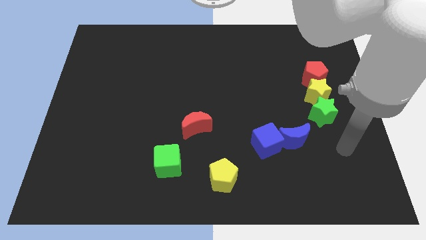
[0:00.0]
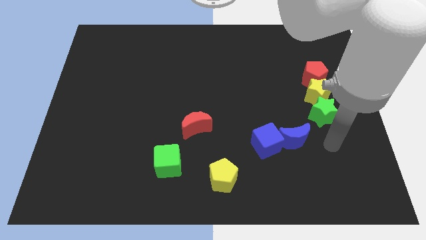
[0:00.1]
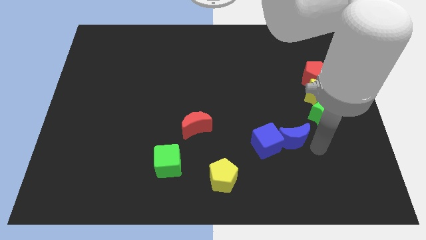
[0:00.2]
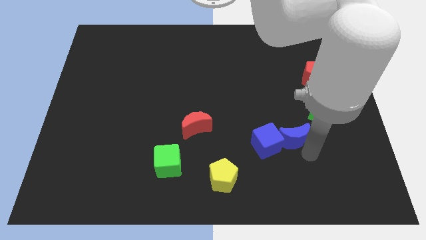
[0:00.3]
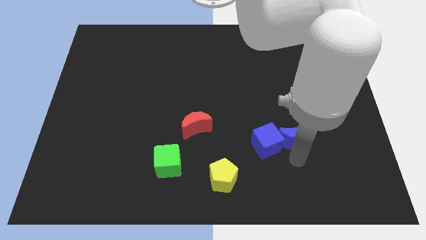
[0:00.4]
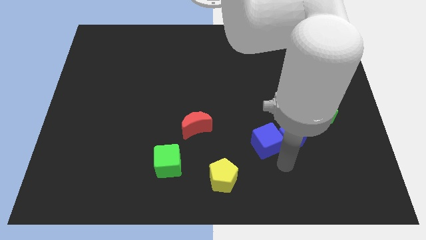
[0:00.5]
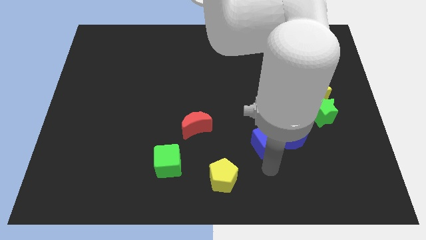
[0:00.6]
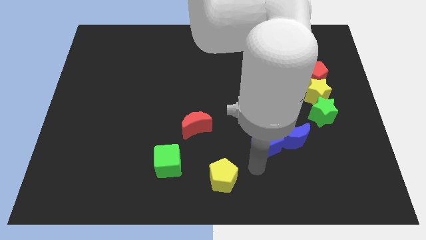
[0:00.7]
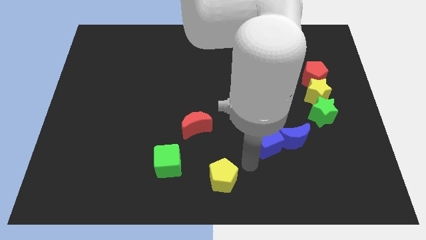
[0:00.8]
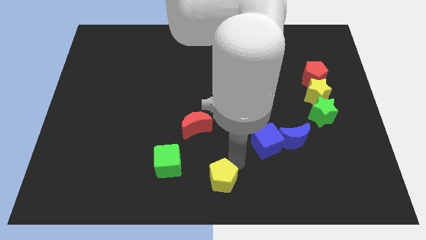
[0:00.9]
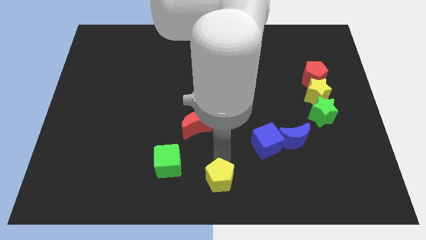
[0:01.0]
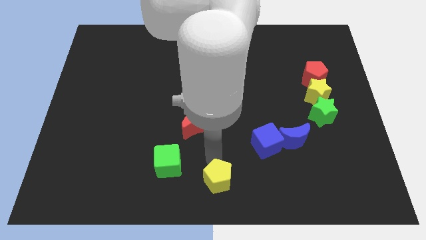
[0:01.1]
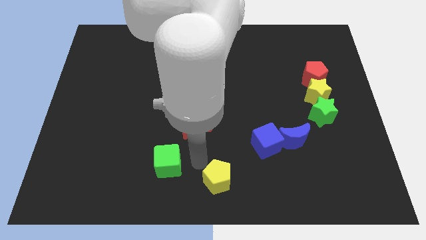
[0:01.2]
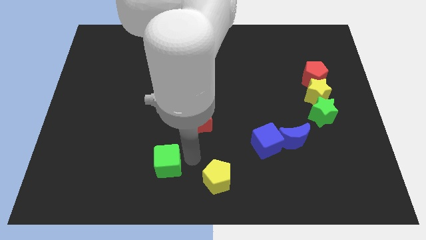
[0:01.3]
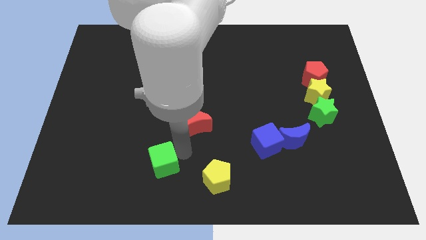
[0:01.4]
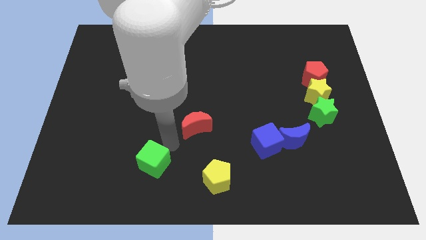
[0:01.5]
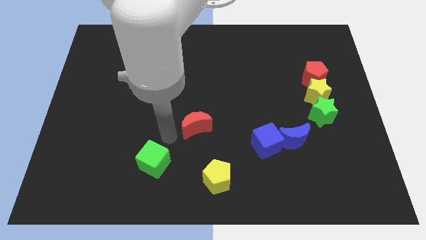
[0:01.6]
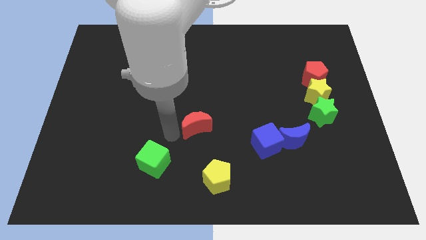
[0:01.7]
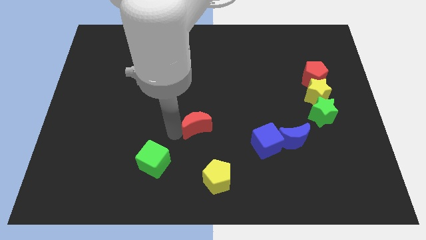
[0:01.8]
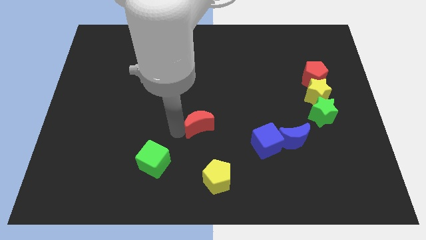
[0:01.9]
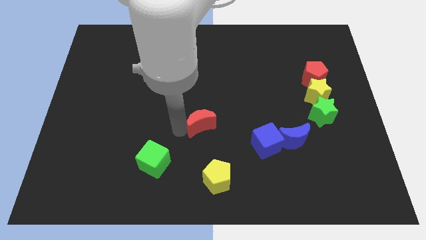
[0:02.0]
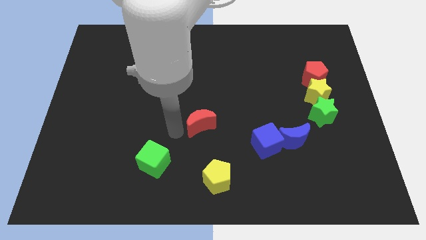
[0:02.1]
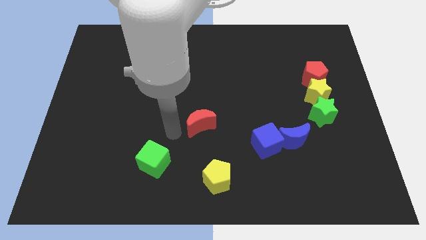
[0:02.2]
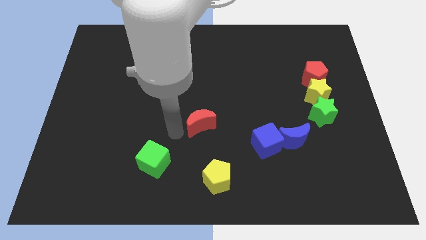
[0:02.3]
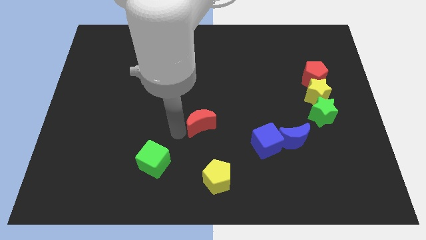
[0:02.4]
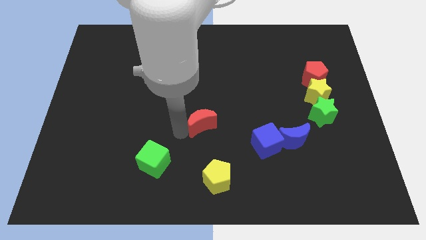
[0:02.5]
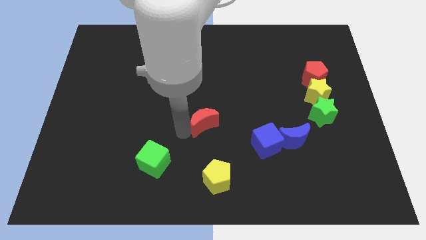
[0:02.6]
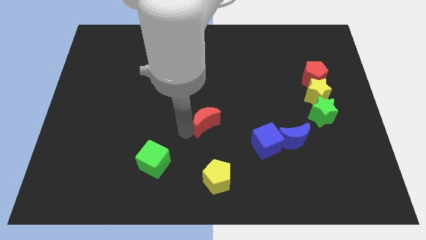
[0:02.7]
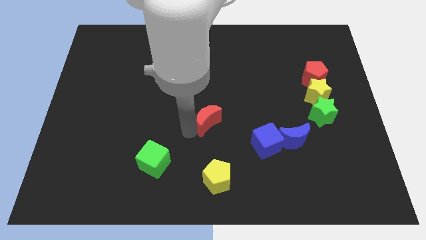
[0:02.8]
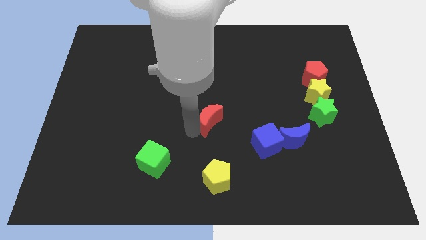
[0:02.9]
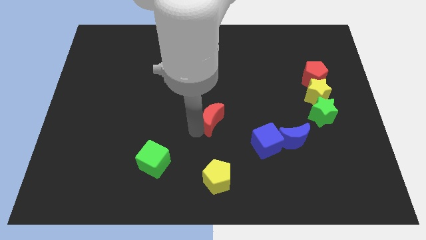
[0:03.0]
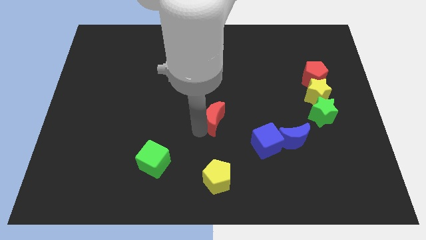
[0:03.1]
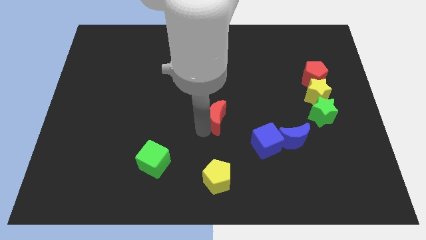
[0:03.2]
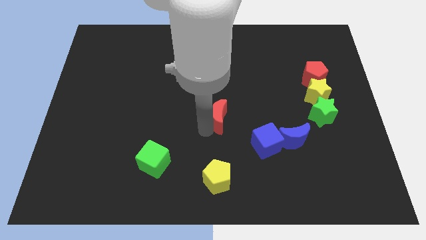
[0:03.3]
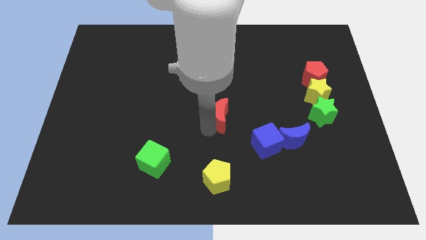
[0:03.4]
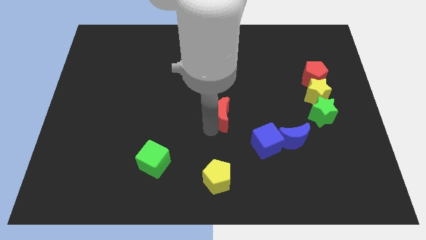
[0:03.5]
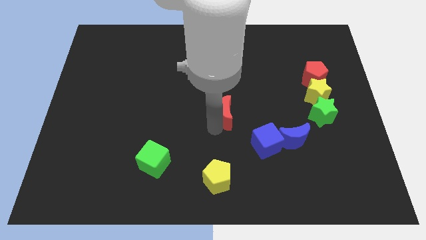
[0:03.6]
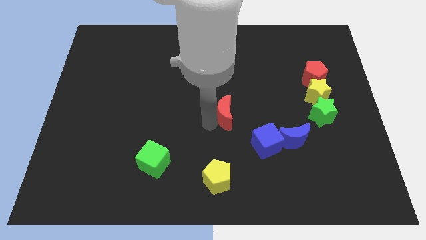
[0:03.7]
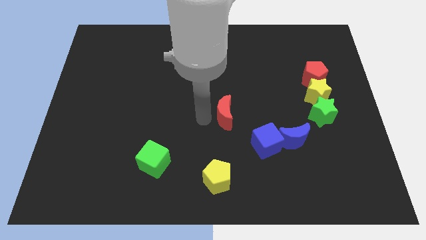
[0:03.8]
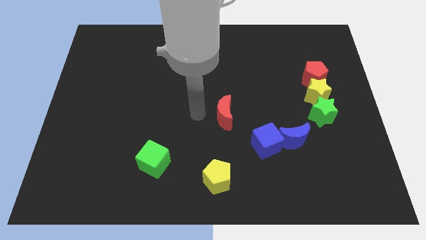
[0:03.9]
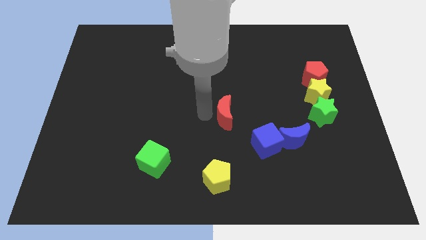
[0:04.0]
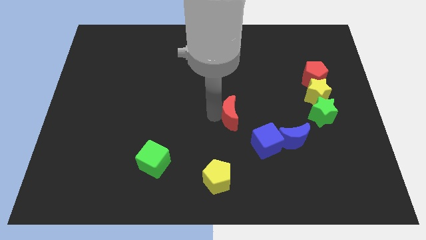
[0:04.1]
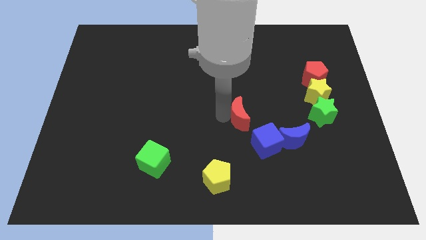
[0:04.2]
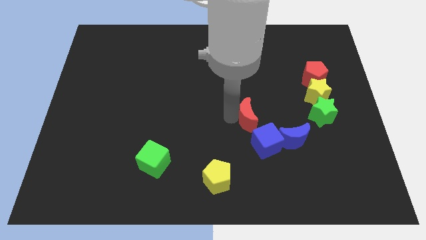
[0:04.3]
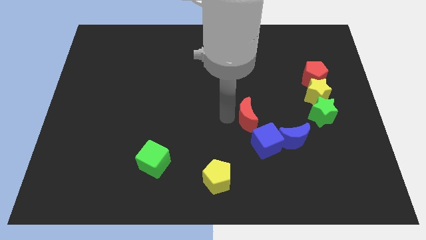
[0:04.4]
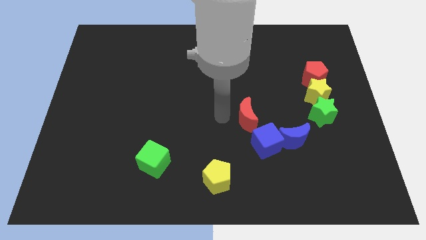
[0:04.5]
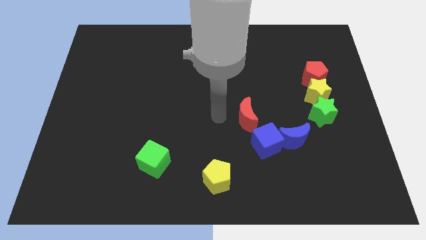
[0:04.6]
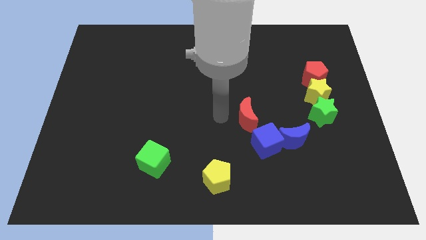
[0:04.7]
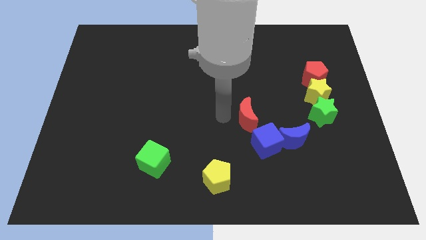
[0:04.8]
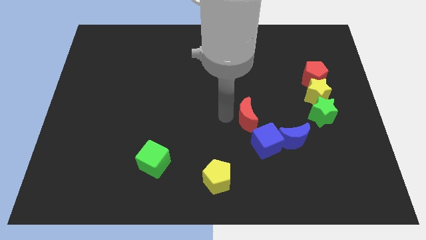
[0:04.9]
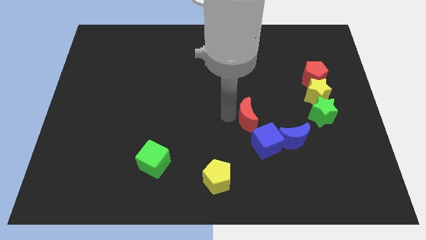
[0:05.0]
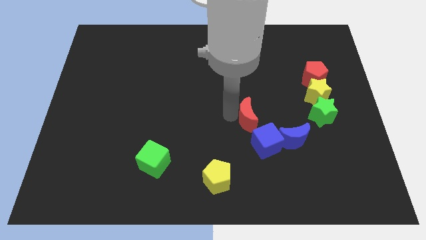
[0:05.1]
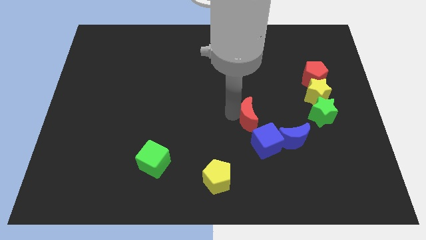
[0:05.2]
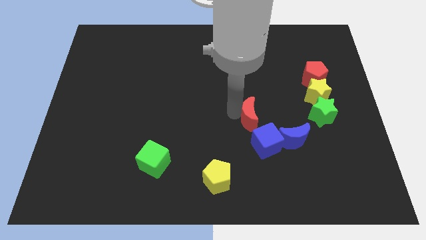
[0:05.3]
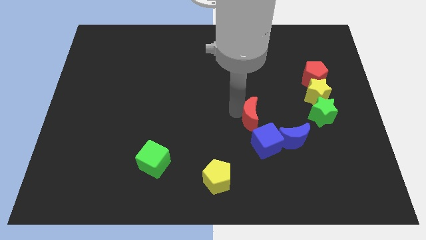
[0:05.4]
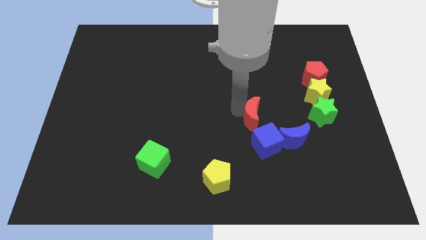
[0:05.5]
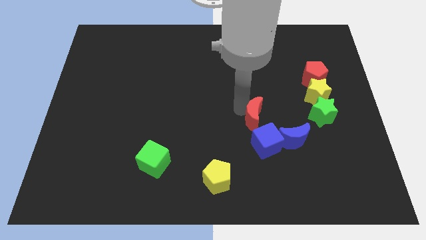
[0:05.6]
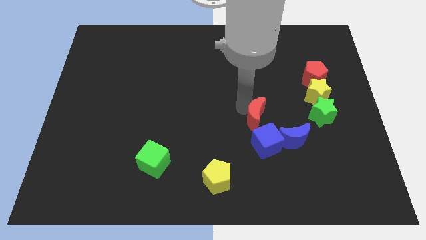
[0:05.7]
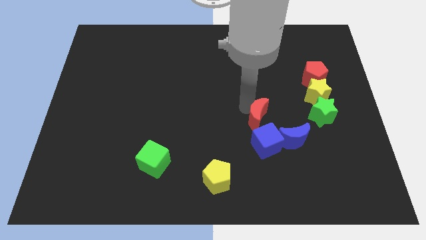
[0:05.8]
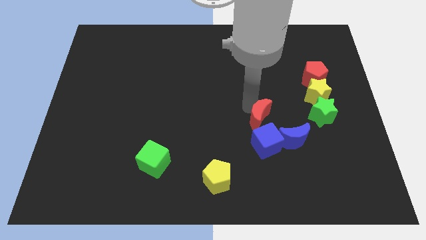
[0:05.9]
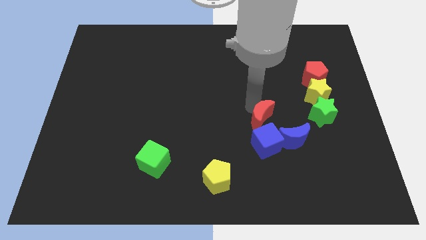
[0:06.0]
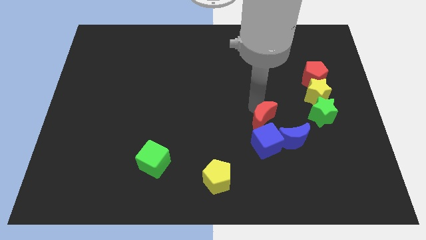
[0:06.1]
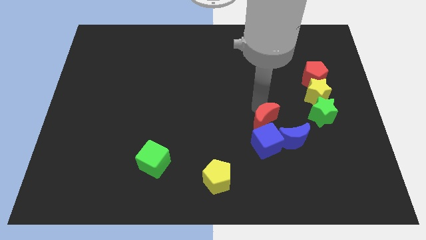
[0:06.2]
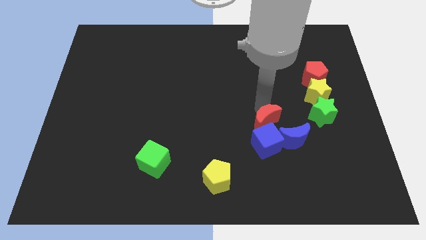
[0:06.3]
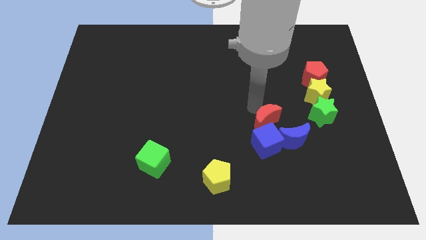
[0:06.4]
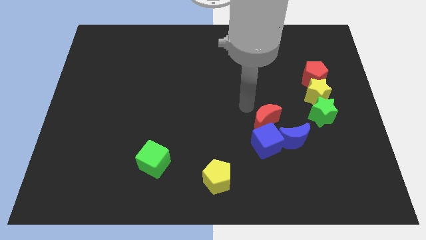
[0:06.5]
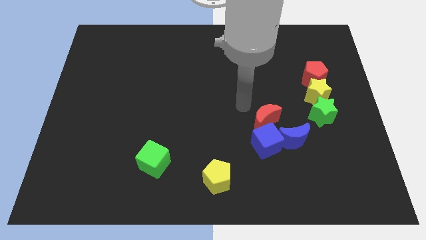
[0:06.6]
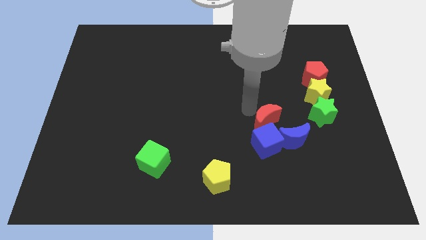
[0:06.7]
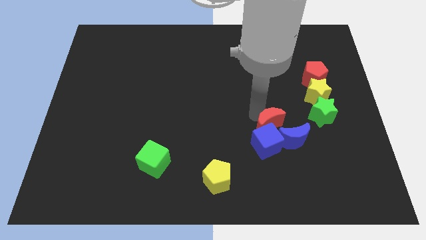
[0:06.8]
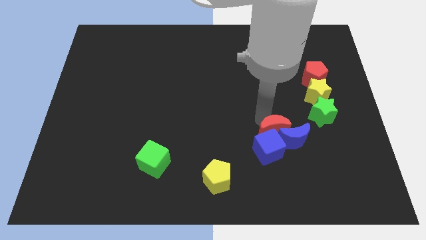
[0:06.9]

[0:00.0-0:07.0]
push the red moon towards the blue moon

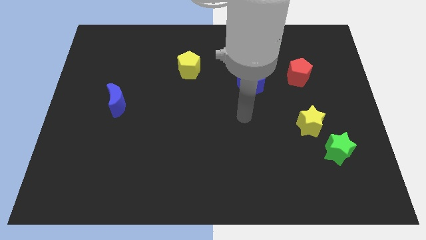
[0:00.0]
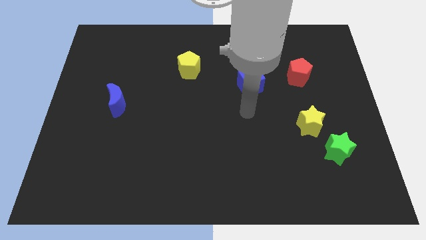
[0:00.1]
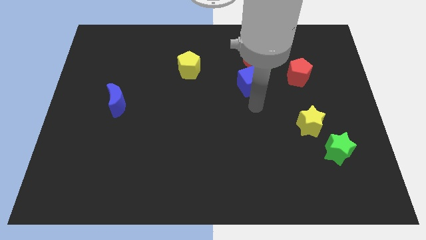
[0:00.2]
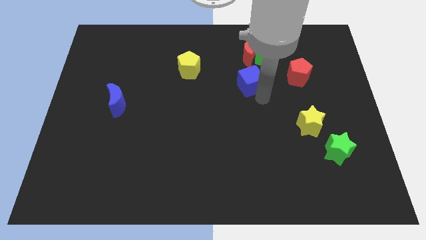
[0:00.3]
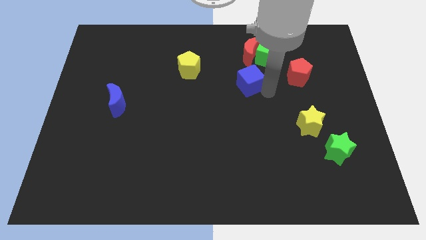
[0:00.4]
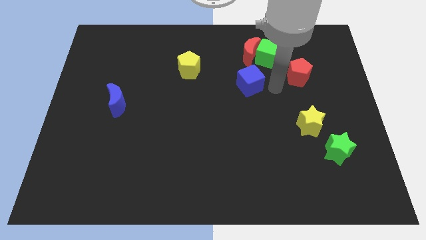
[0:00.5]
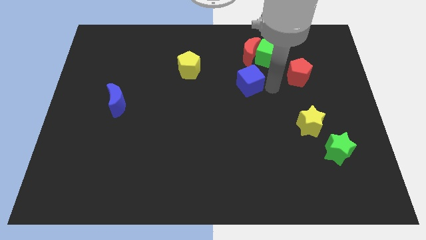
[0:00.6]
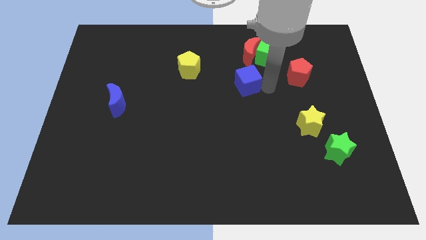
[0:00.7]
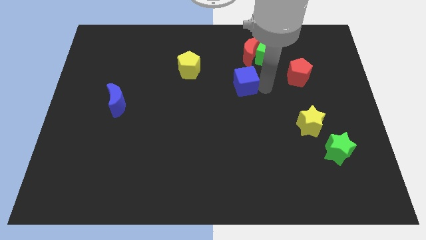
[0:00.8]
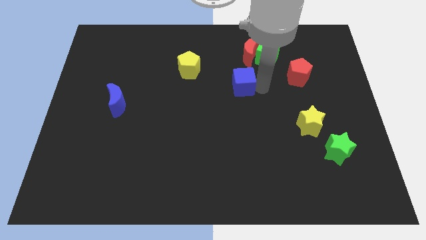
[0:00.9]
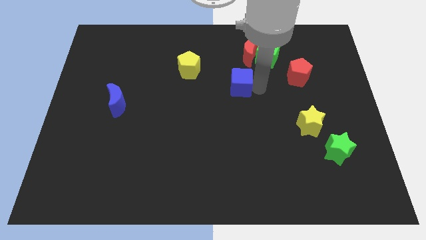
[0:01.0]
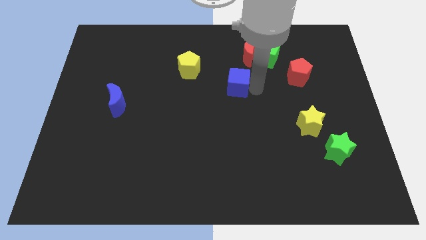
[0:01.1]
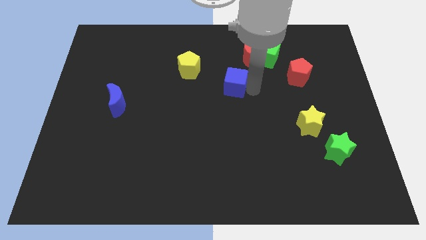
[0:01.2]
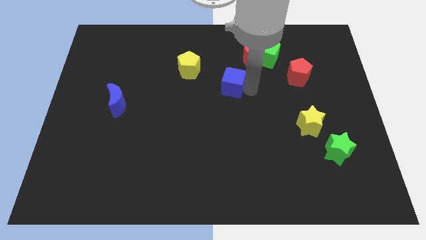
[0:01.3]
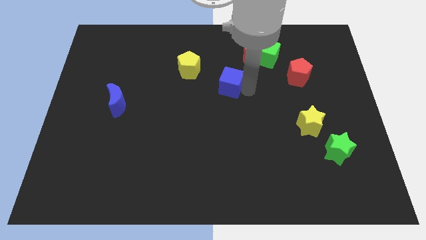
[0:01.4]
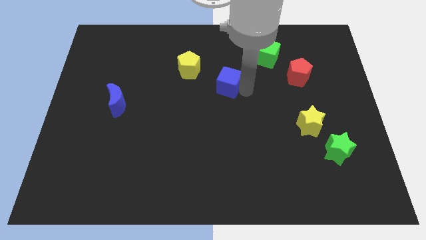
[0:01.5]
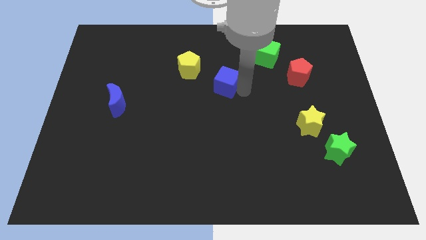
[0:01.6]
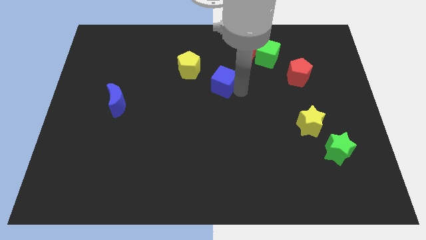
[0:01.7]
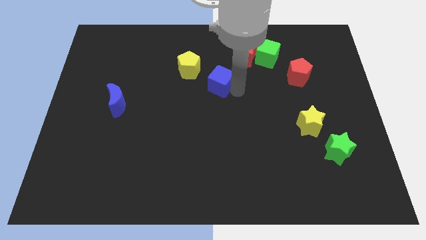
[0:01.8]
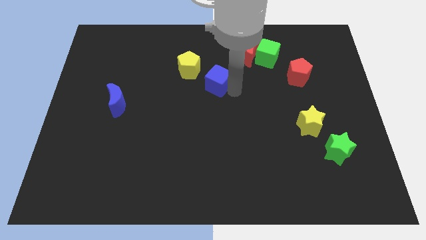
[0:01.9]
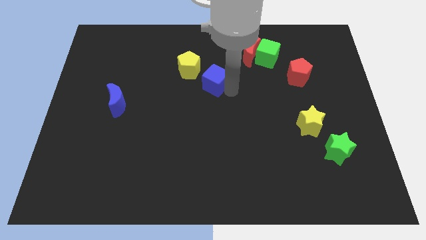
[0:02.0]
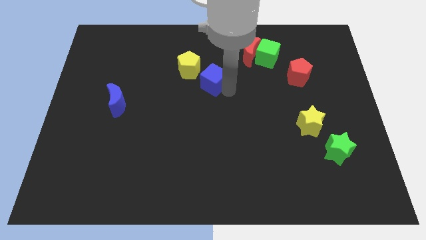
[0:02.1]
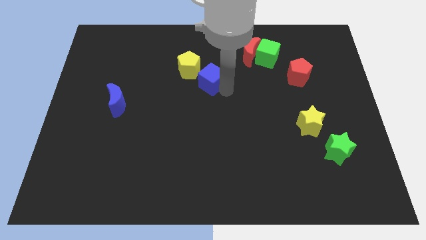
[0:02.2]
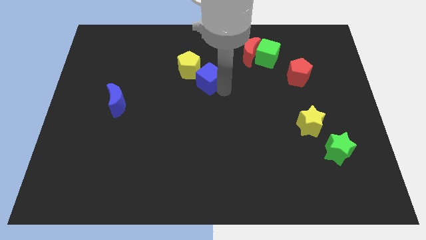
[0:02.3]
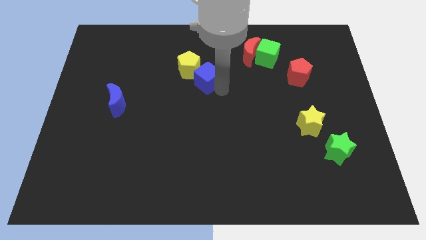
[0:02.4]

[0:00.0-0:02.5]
push the blue cube close to the yellow pentagon
